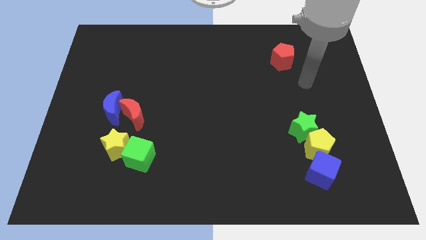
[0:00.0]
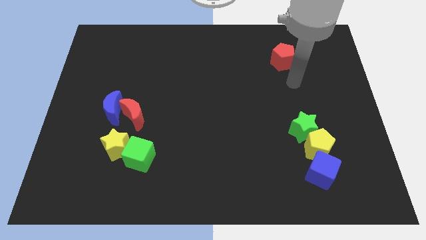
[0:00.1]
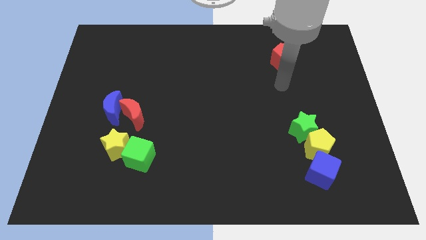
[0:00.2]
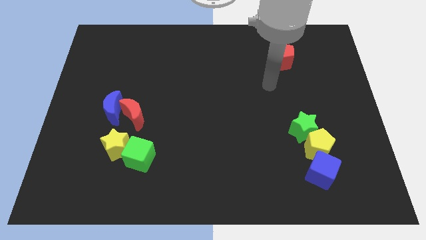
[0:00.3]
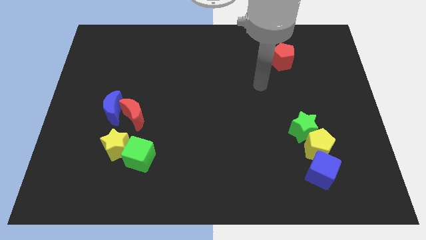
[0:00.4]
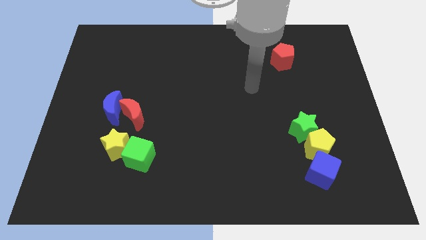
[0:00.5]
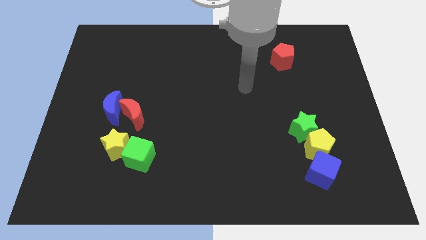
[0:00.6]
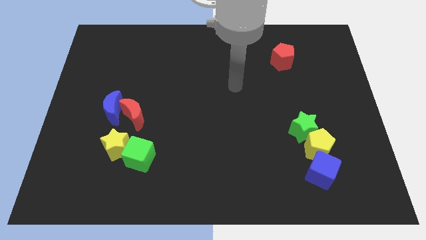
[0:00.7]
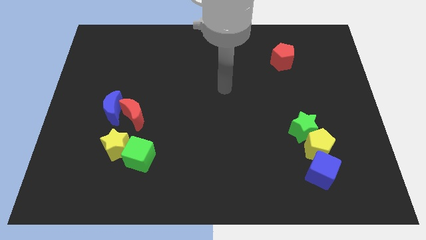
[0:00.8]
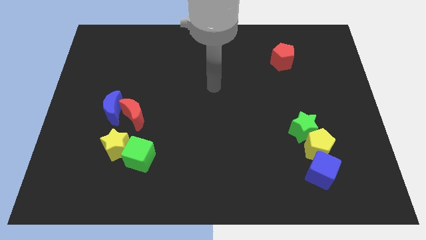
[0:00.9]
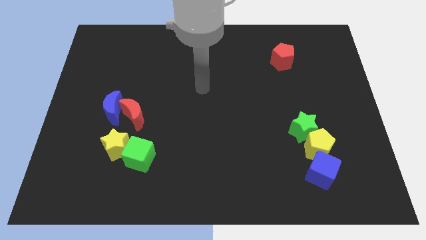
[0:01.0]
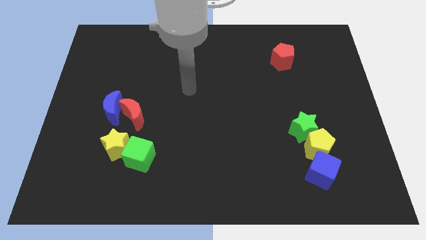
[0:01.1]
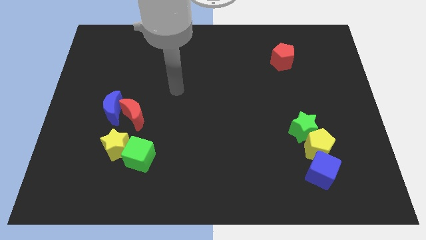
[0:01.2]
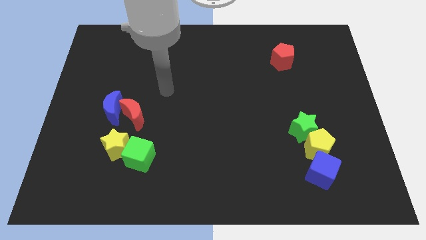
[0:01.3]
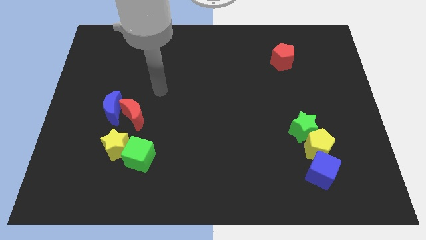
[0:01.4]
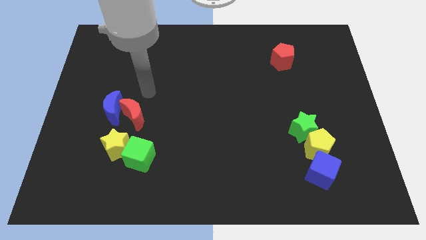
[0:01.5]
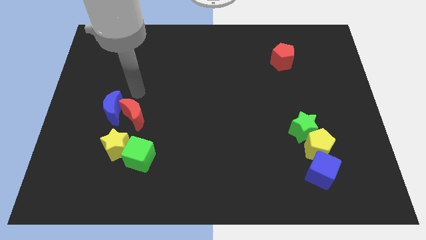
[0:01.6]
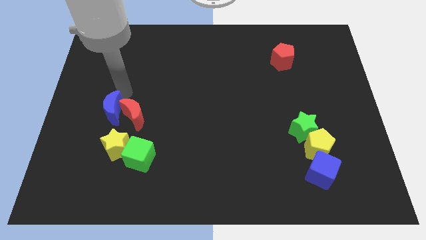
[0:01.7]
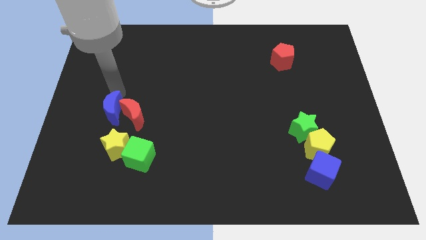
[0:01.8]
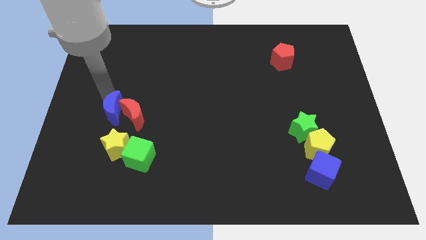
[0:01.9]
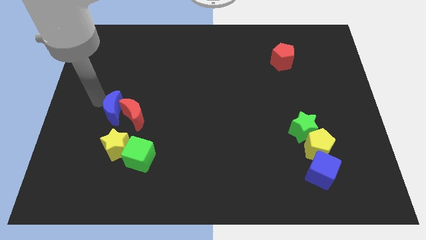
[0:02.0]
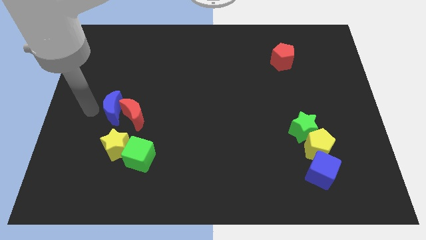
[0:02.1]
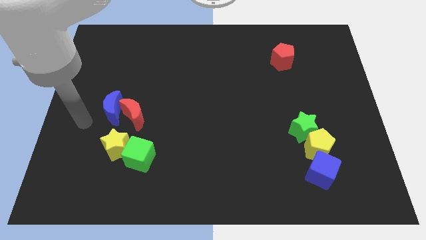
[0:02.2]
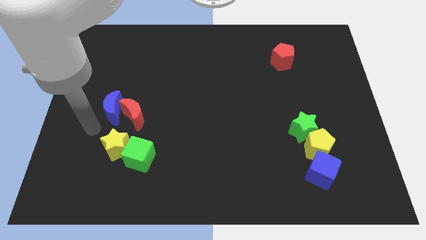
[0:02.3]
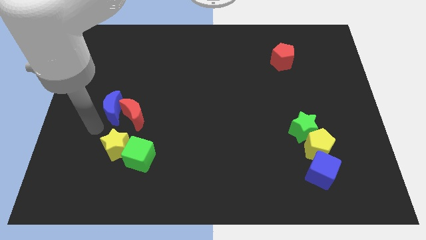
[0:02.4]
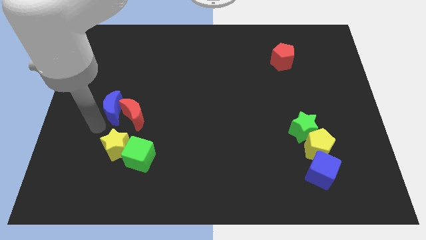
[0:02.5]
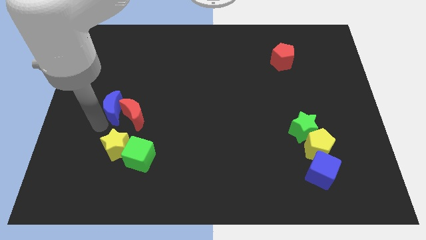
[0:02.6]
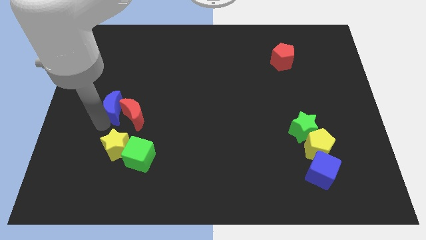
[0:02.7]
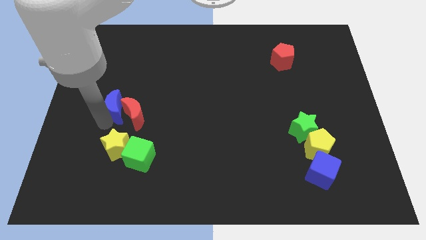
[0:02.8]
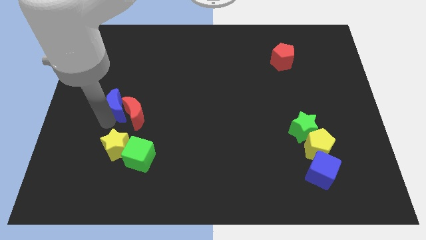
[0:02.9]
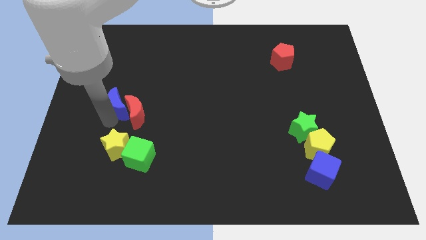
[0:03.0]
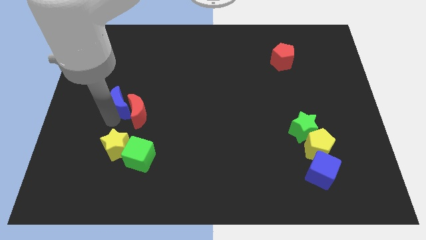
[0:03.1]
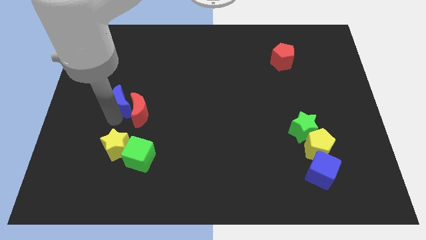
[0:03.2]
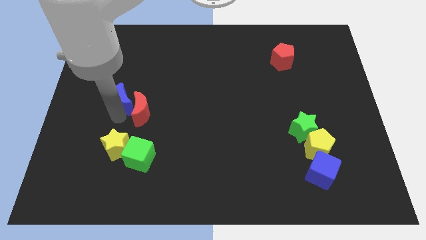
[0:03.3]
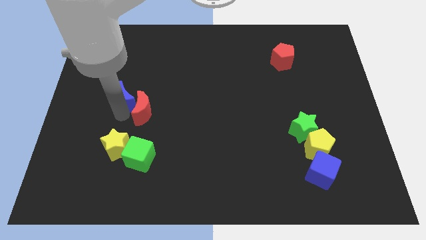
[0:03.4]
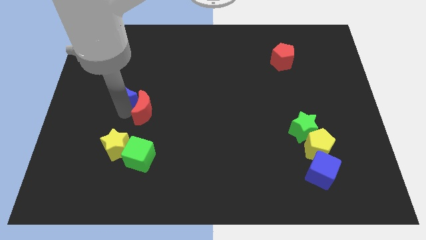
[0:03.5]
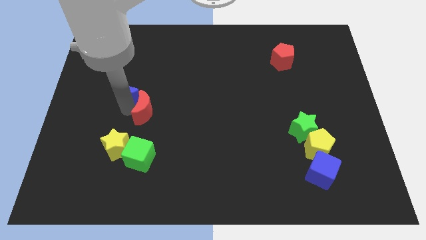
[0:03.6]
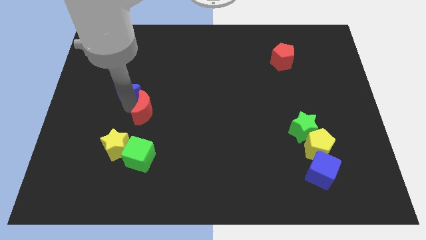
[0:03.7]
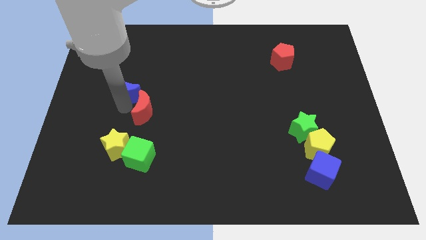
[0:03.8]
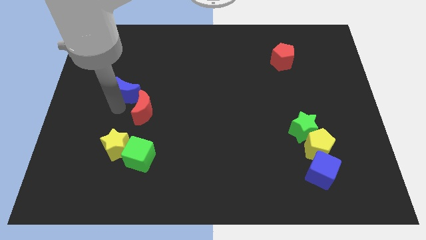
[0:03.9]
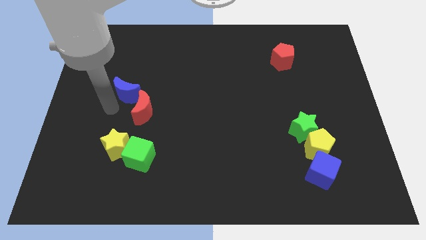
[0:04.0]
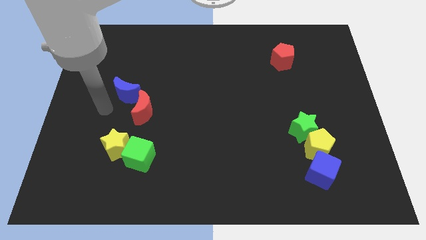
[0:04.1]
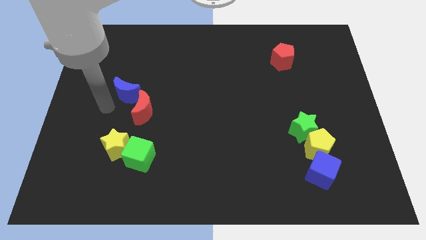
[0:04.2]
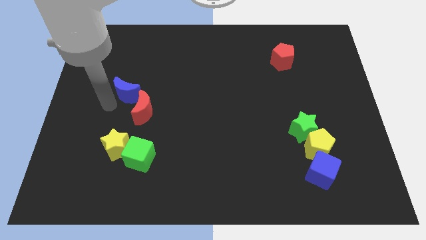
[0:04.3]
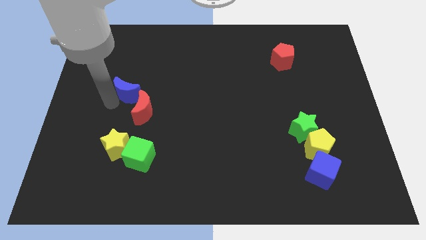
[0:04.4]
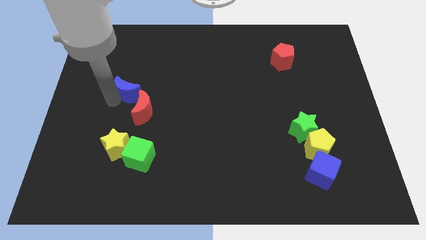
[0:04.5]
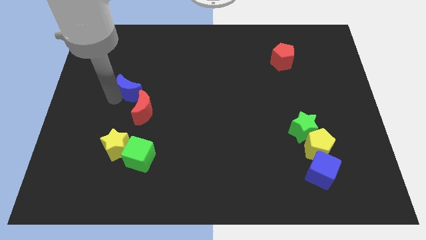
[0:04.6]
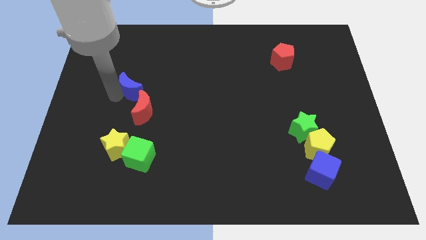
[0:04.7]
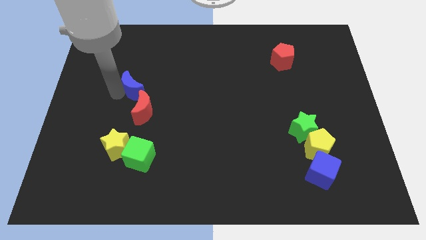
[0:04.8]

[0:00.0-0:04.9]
slightly move the blue moon upwards and to the right diagonally

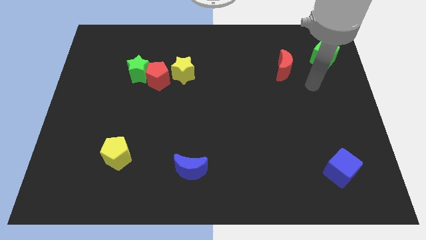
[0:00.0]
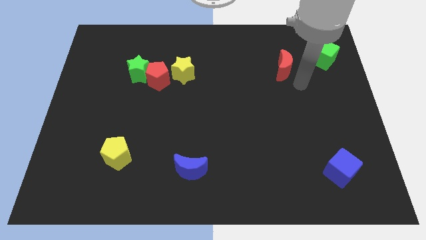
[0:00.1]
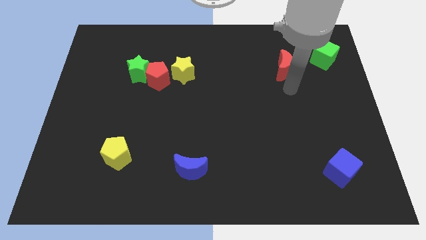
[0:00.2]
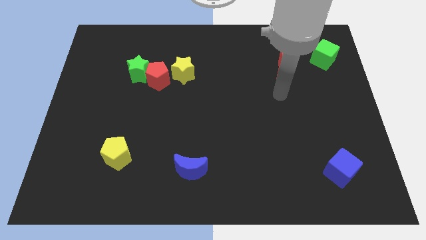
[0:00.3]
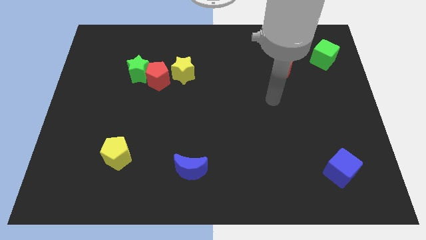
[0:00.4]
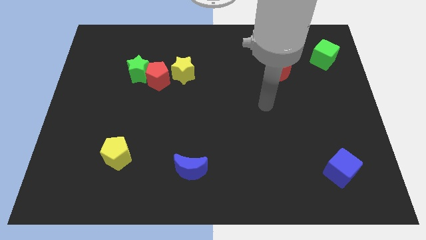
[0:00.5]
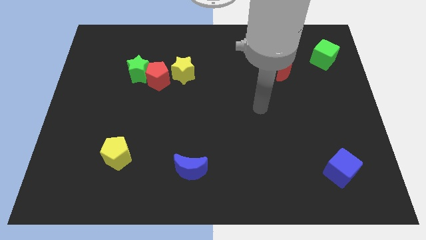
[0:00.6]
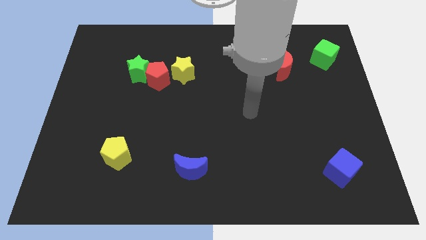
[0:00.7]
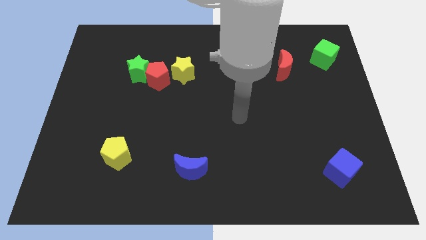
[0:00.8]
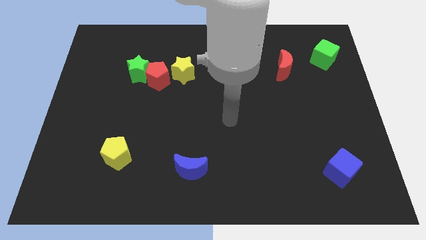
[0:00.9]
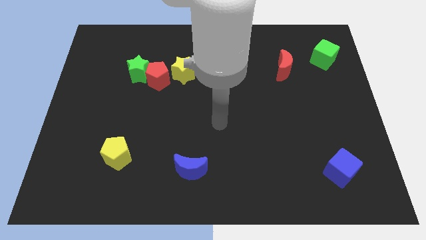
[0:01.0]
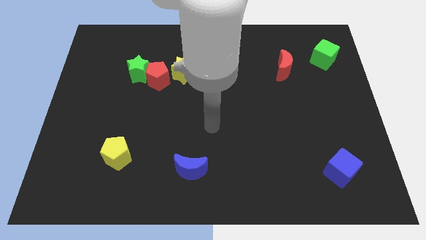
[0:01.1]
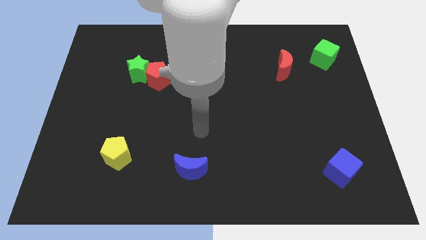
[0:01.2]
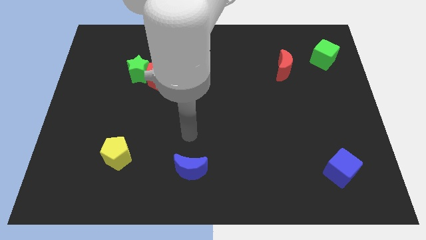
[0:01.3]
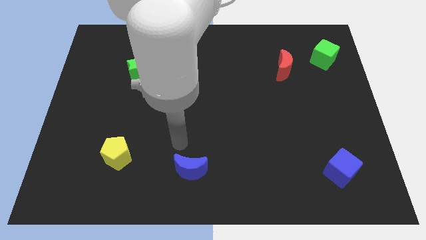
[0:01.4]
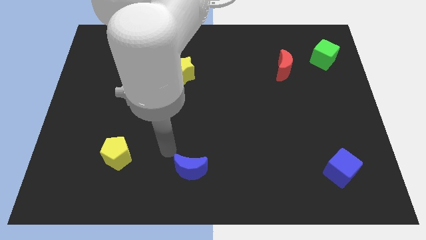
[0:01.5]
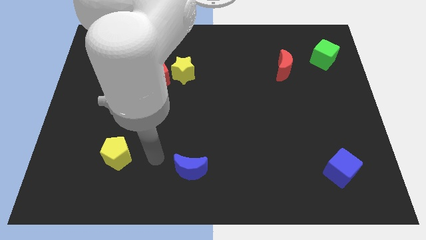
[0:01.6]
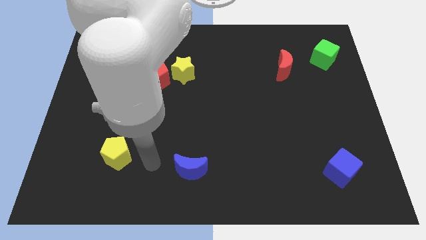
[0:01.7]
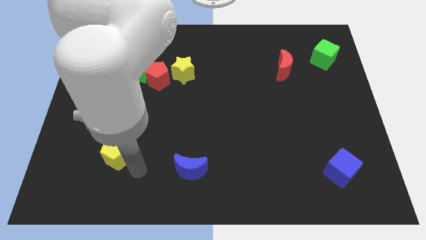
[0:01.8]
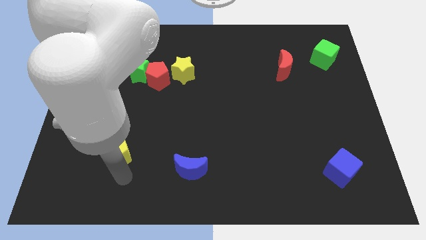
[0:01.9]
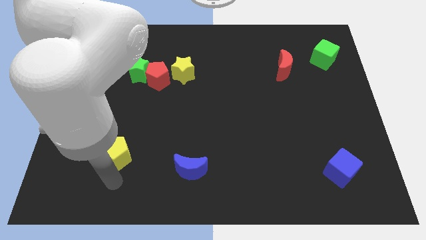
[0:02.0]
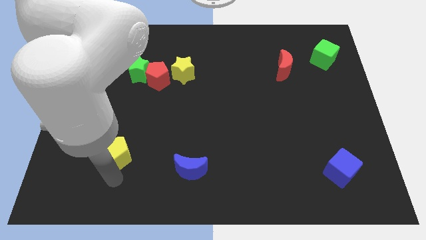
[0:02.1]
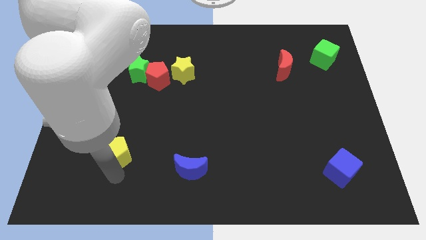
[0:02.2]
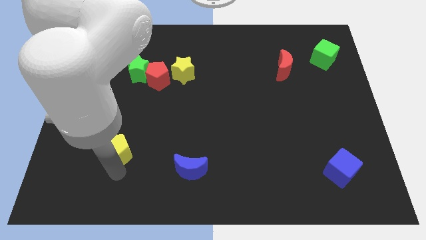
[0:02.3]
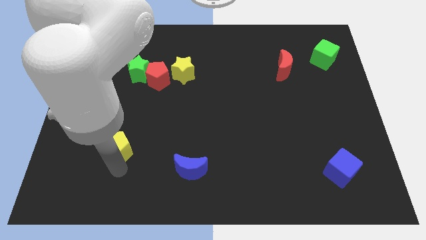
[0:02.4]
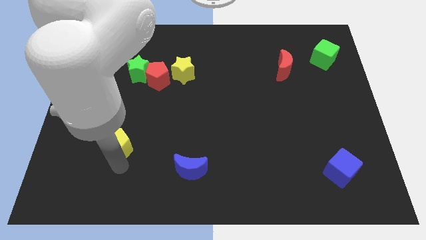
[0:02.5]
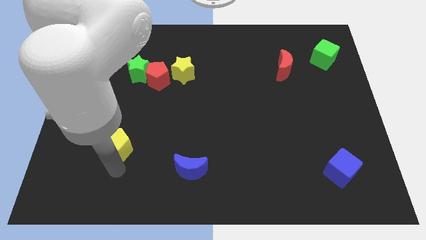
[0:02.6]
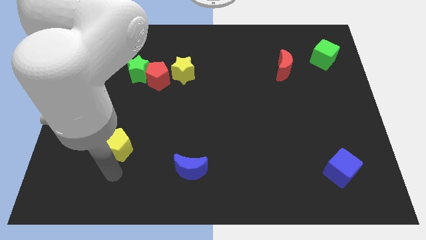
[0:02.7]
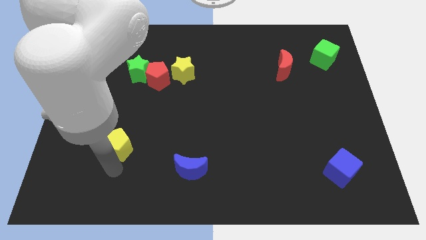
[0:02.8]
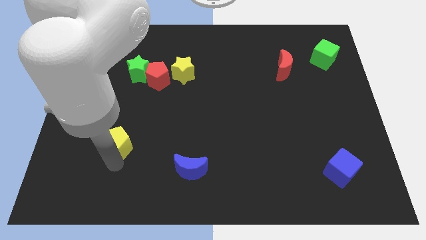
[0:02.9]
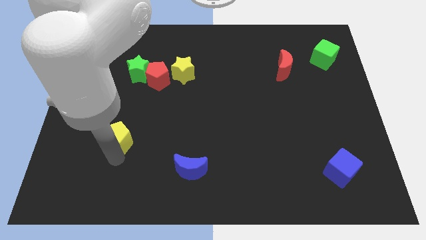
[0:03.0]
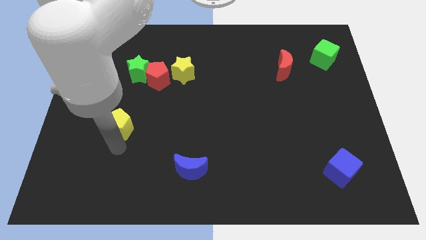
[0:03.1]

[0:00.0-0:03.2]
slightly push the yellow pentagon up
